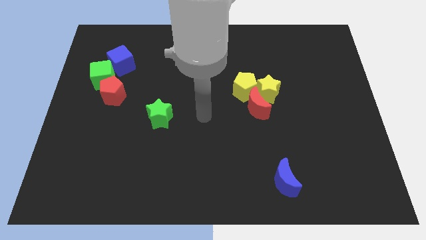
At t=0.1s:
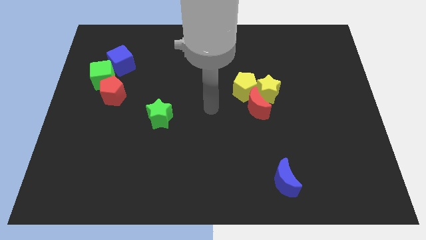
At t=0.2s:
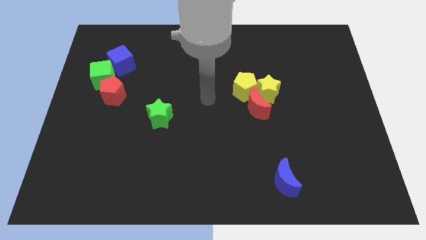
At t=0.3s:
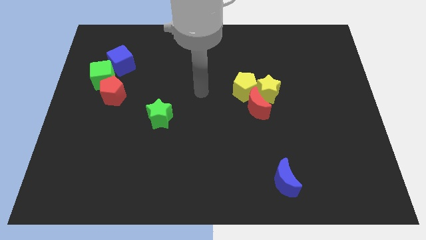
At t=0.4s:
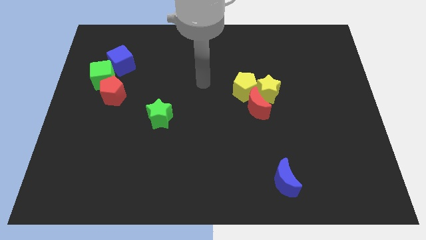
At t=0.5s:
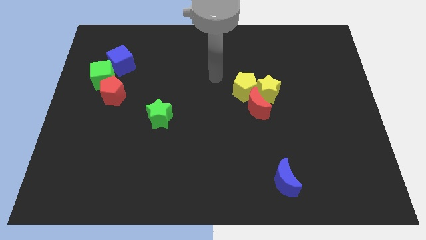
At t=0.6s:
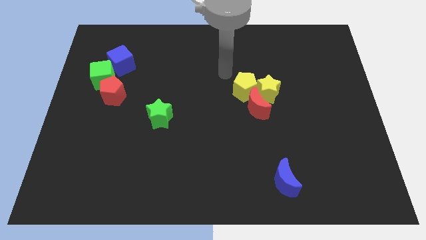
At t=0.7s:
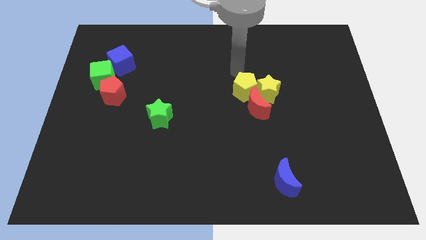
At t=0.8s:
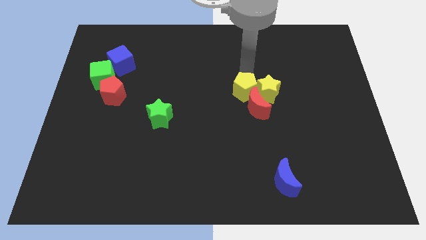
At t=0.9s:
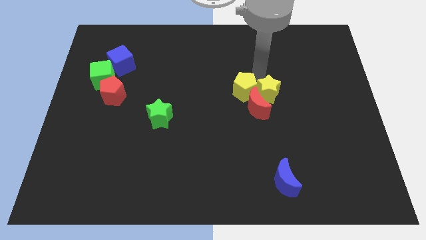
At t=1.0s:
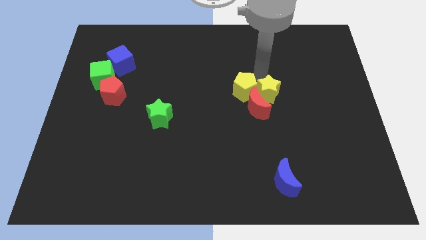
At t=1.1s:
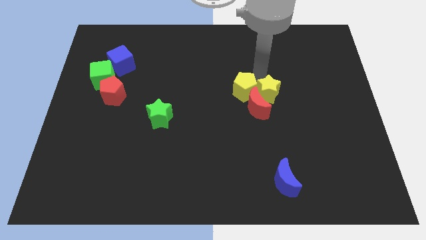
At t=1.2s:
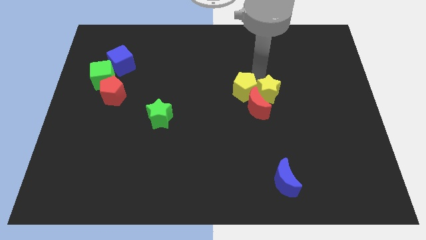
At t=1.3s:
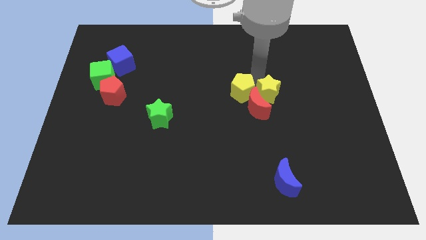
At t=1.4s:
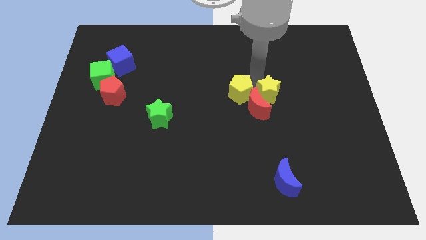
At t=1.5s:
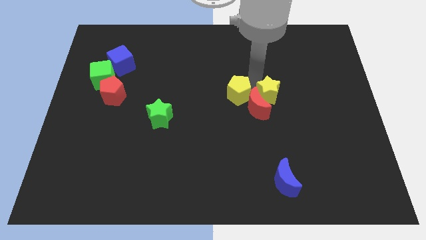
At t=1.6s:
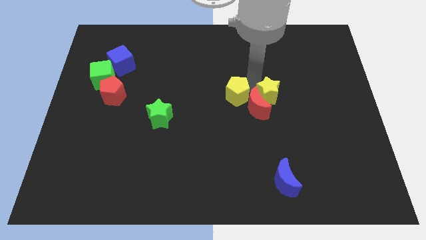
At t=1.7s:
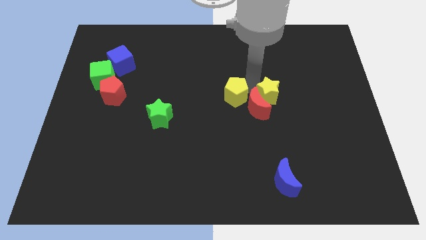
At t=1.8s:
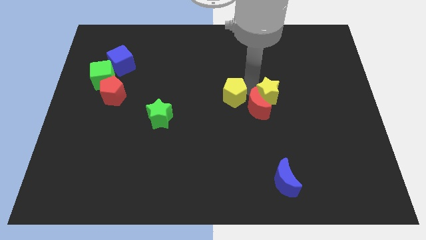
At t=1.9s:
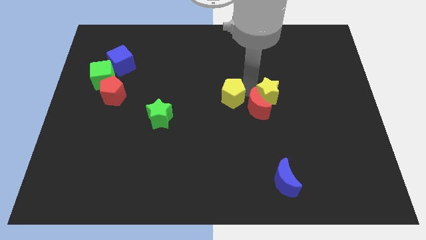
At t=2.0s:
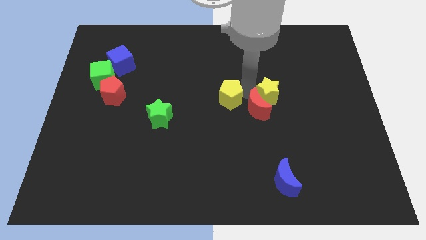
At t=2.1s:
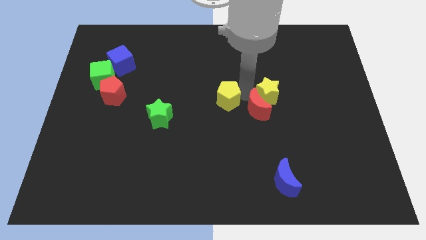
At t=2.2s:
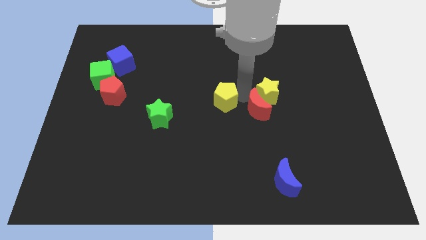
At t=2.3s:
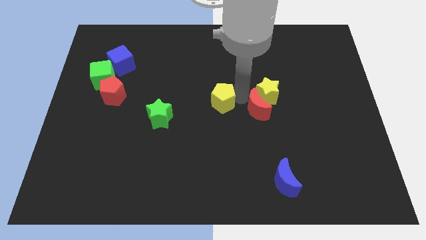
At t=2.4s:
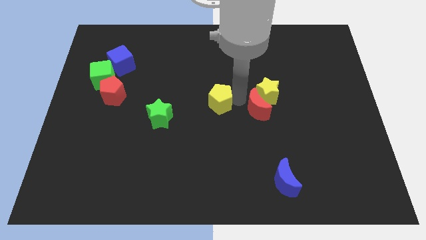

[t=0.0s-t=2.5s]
push the yellow pentagon a little bit down and to the left diagonally

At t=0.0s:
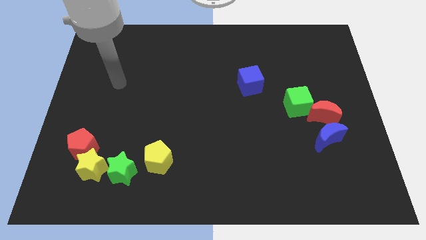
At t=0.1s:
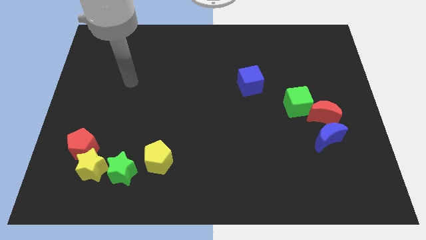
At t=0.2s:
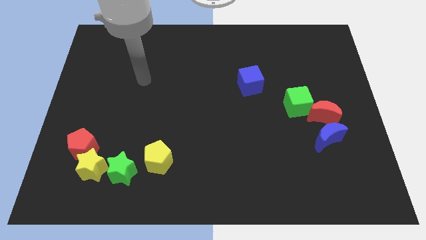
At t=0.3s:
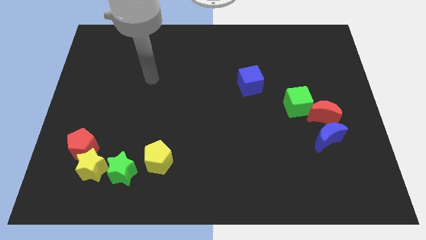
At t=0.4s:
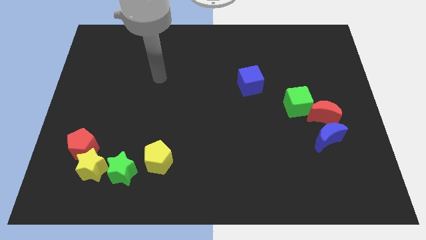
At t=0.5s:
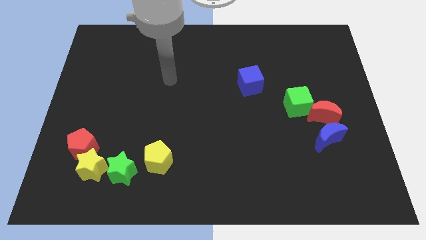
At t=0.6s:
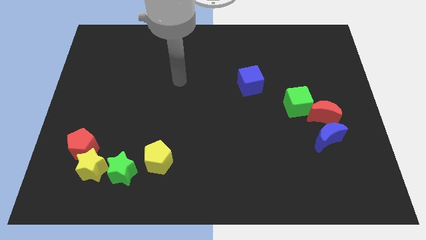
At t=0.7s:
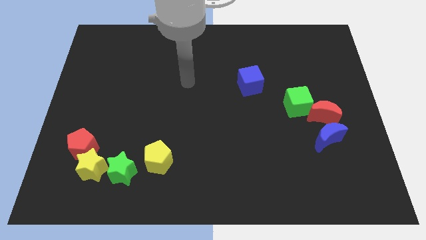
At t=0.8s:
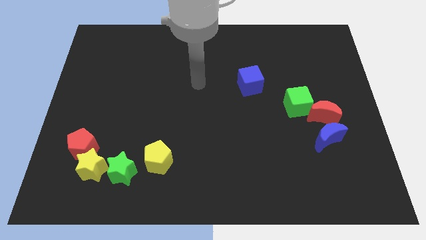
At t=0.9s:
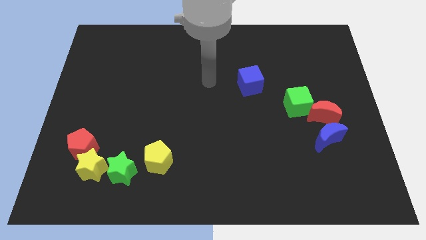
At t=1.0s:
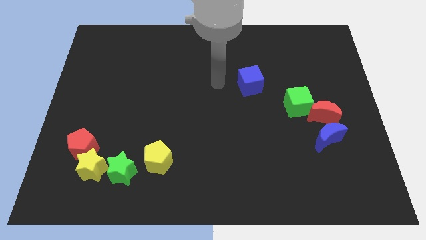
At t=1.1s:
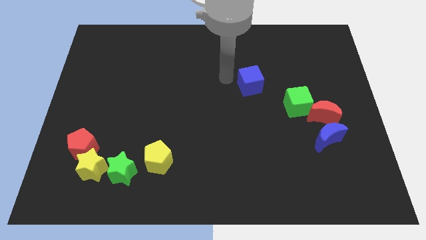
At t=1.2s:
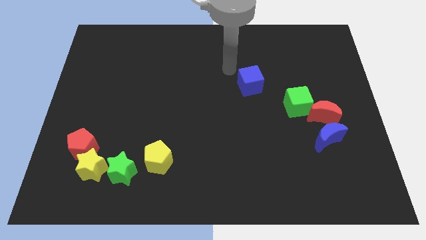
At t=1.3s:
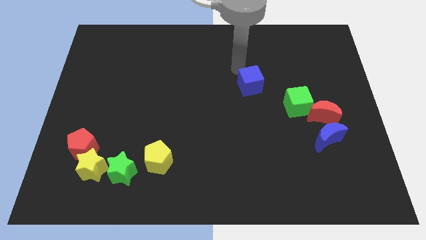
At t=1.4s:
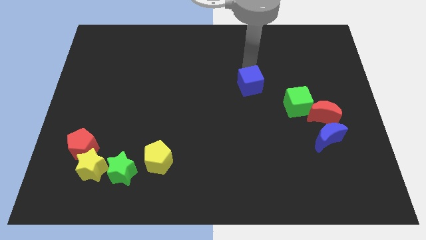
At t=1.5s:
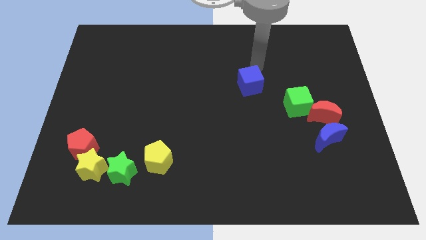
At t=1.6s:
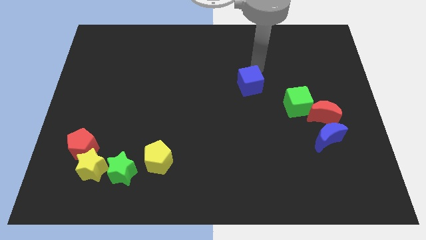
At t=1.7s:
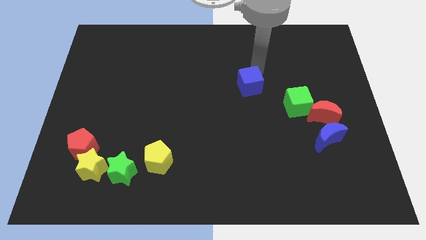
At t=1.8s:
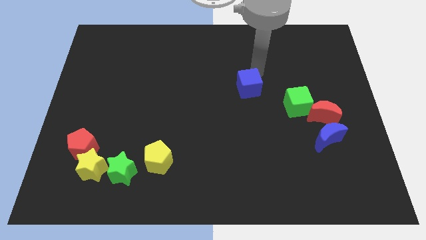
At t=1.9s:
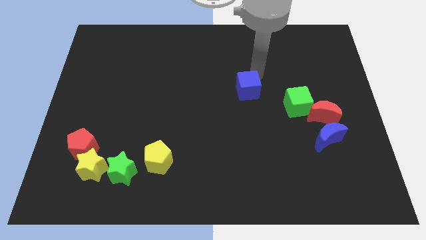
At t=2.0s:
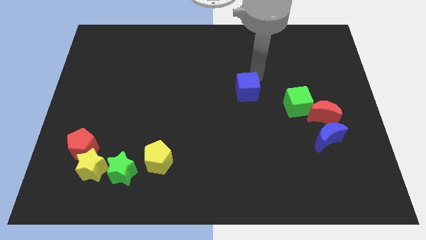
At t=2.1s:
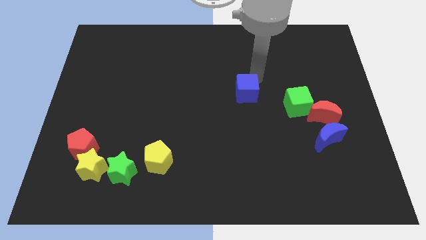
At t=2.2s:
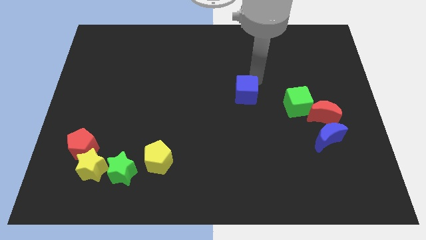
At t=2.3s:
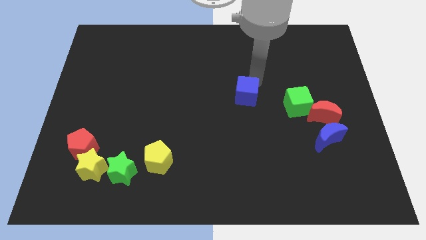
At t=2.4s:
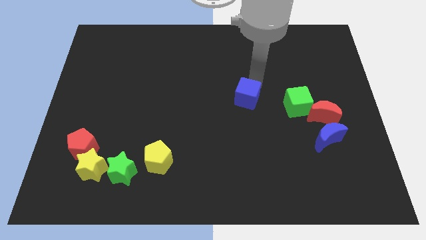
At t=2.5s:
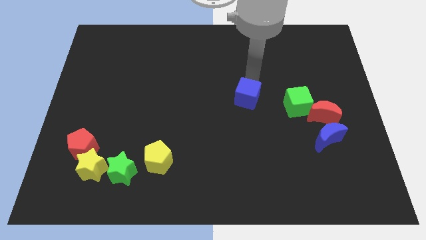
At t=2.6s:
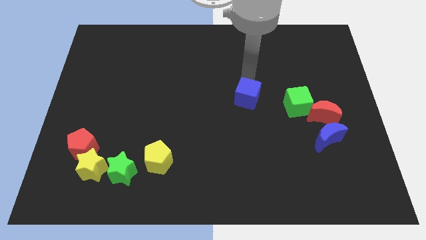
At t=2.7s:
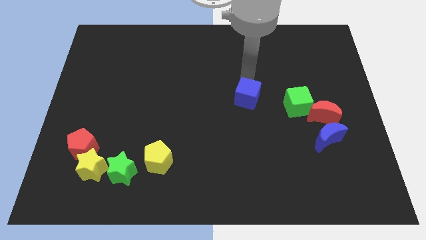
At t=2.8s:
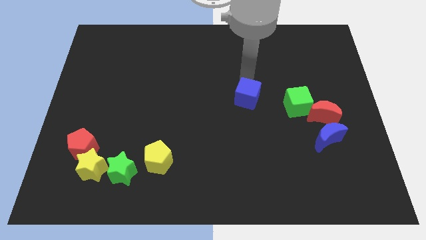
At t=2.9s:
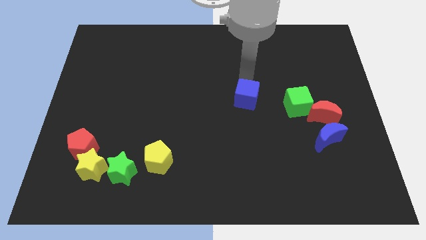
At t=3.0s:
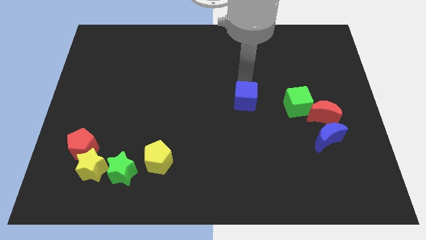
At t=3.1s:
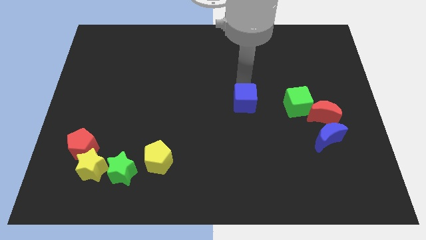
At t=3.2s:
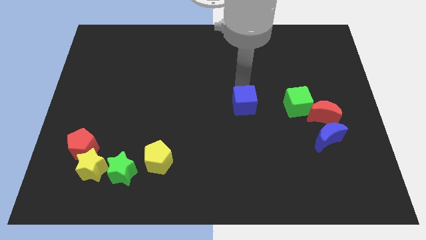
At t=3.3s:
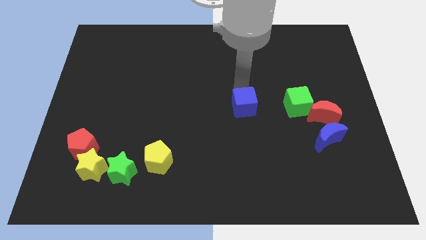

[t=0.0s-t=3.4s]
push the blue cube a little downwards

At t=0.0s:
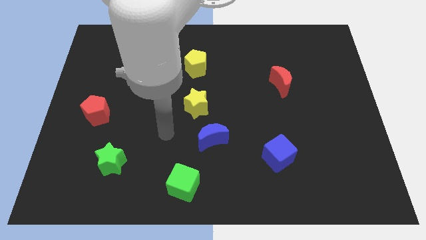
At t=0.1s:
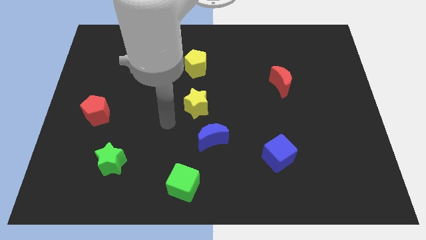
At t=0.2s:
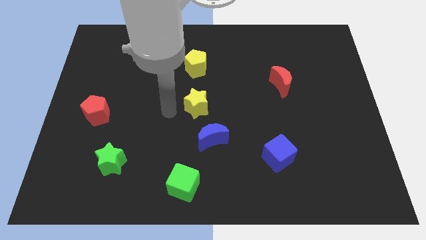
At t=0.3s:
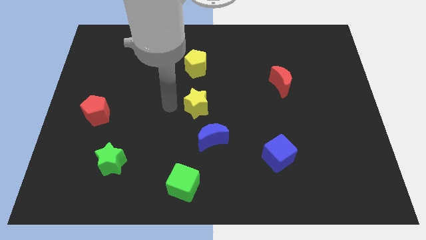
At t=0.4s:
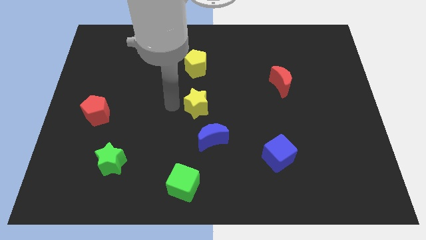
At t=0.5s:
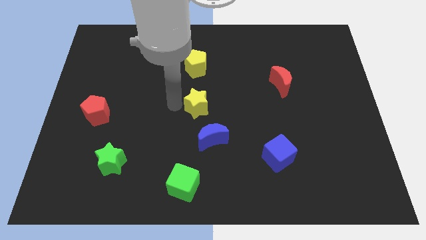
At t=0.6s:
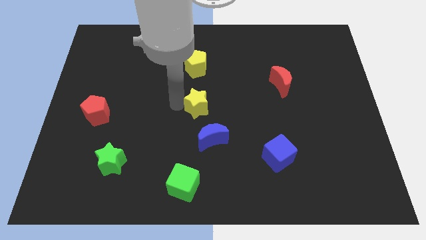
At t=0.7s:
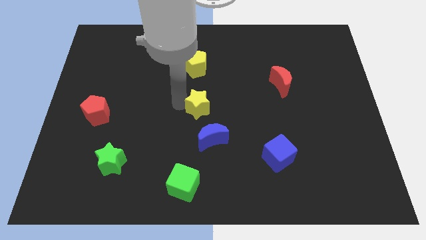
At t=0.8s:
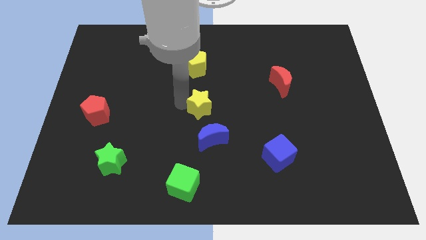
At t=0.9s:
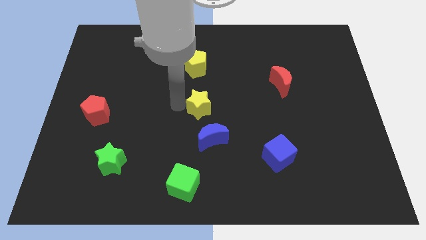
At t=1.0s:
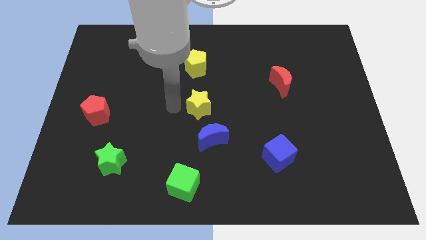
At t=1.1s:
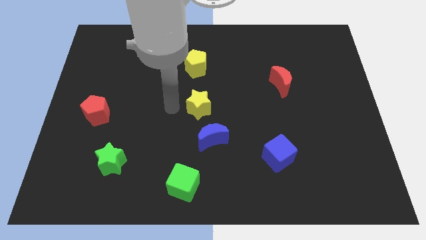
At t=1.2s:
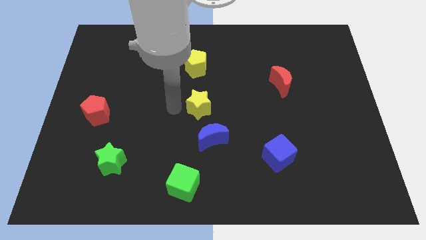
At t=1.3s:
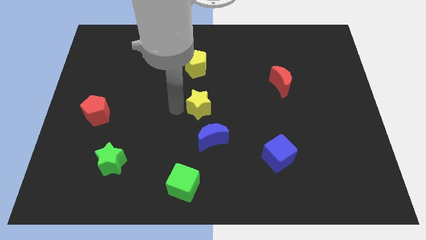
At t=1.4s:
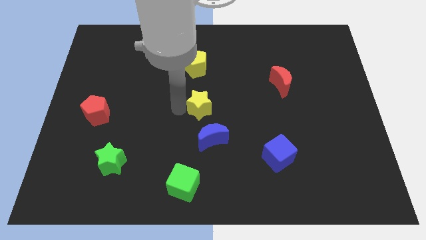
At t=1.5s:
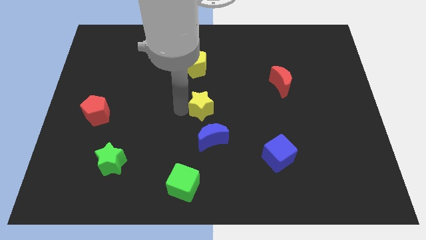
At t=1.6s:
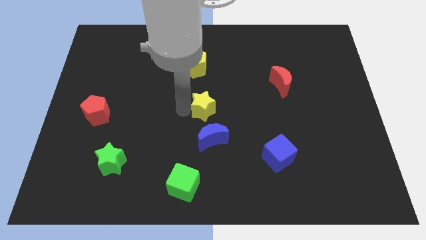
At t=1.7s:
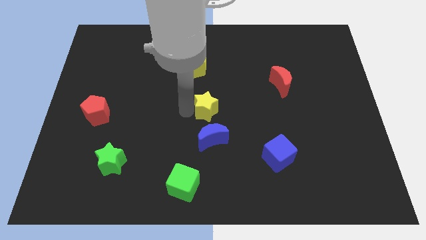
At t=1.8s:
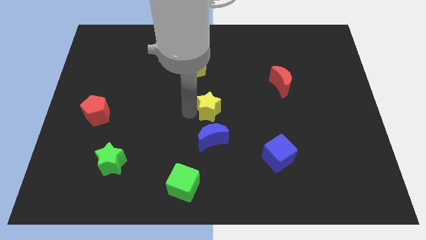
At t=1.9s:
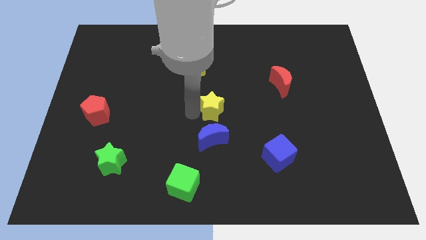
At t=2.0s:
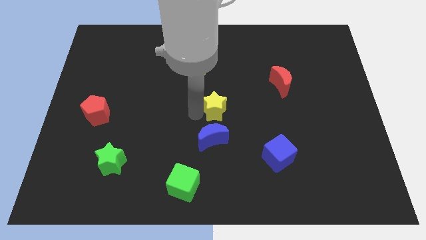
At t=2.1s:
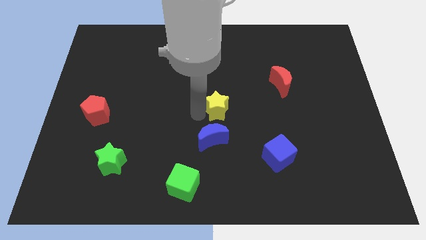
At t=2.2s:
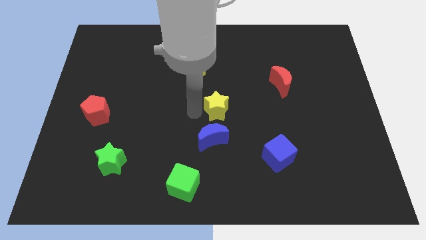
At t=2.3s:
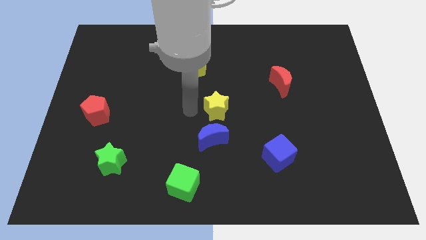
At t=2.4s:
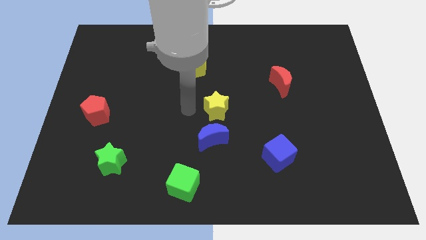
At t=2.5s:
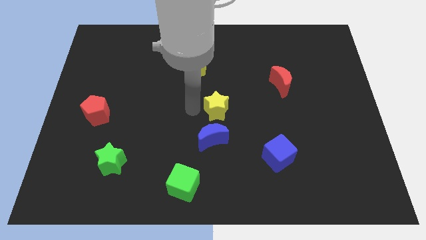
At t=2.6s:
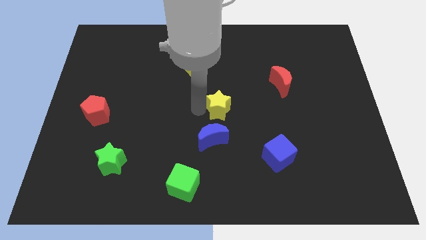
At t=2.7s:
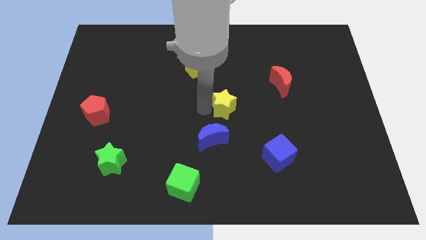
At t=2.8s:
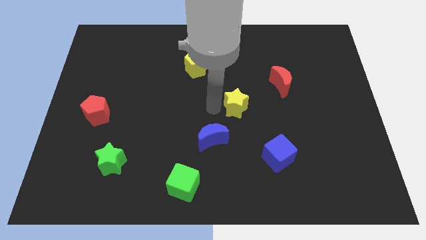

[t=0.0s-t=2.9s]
move the yellow star slightly to the right
